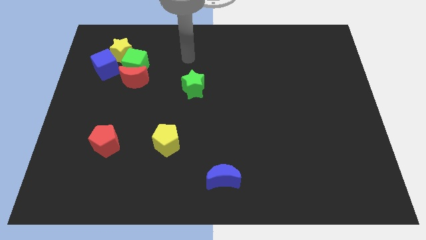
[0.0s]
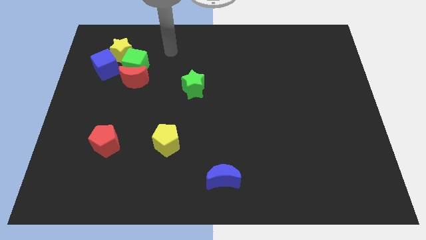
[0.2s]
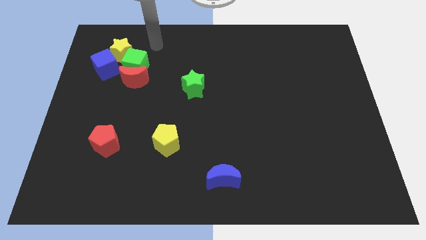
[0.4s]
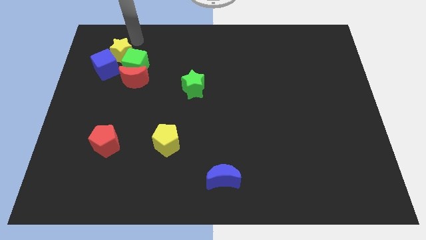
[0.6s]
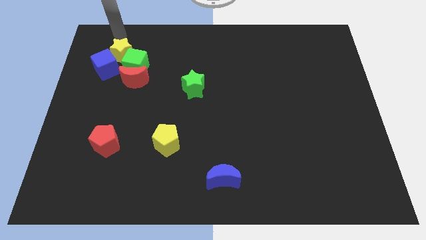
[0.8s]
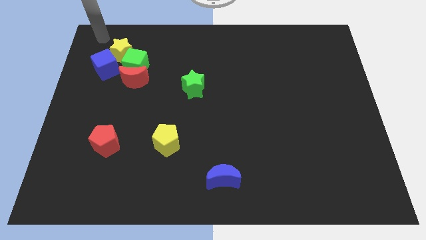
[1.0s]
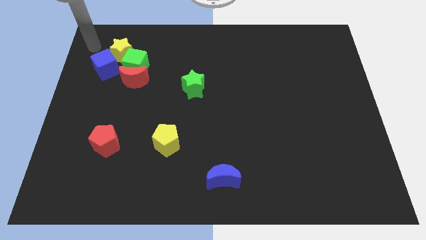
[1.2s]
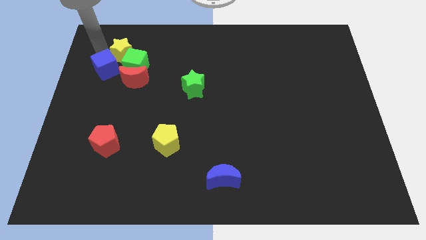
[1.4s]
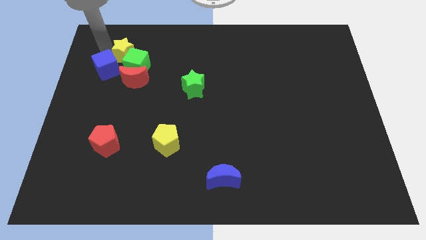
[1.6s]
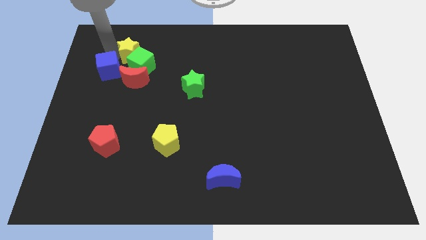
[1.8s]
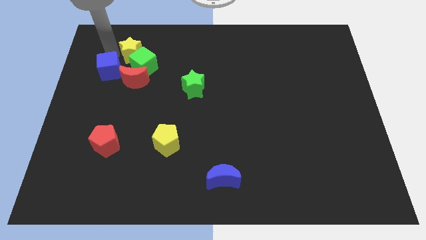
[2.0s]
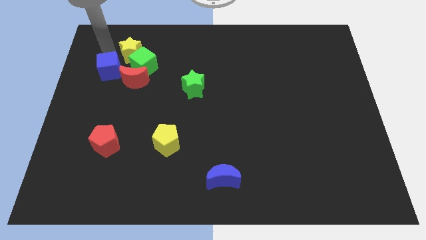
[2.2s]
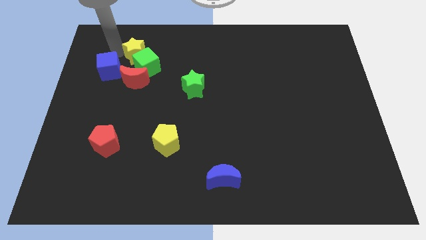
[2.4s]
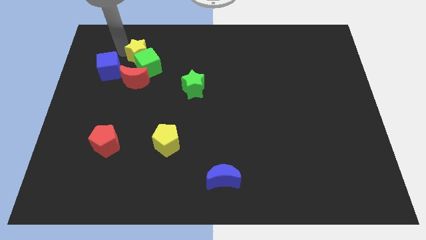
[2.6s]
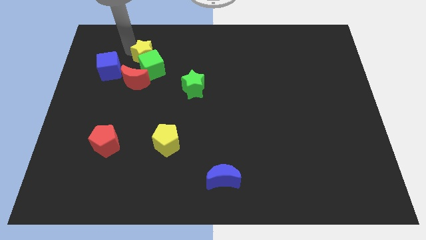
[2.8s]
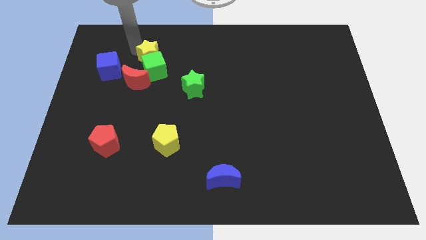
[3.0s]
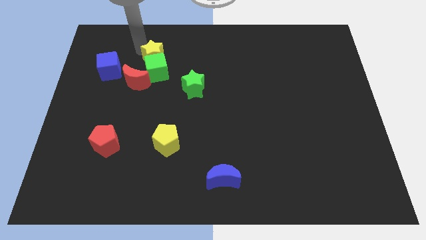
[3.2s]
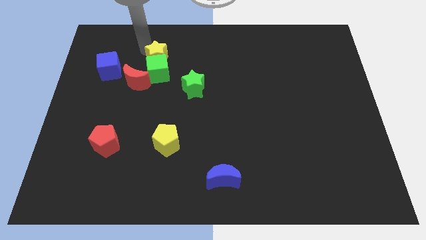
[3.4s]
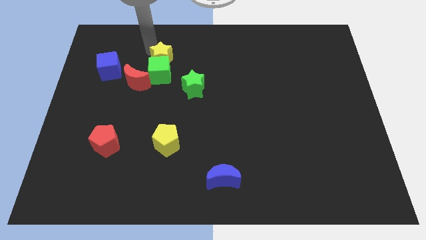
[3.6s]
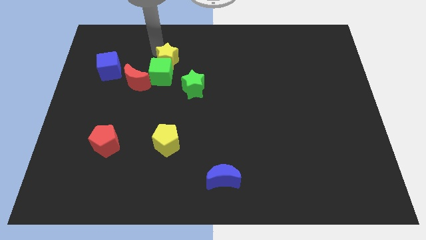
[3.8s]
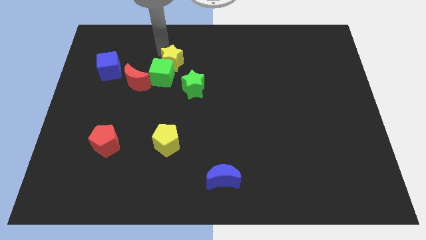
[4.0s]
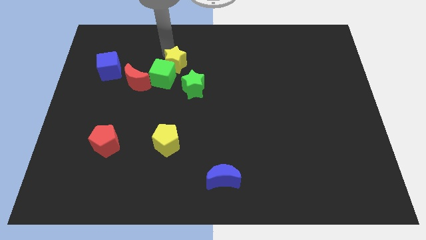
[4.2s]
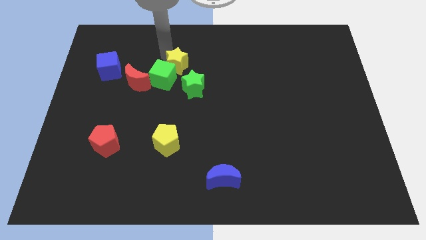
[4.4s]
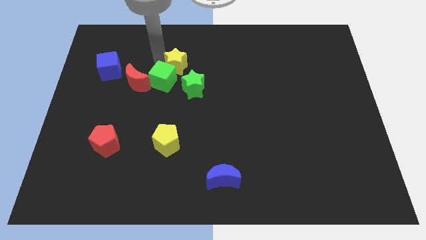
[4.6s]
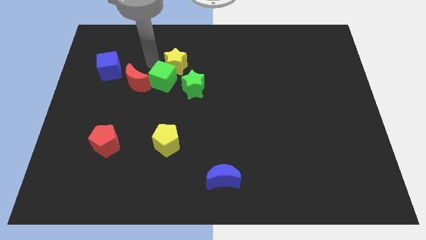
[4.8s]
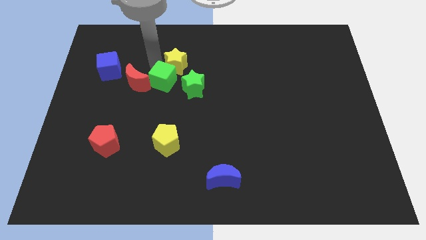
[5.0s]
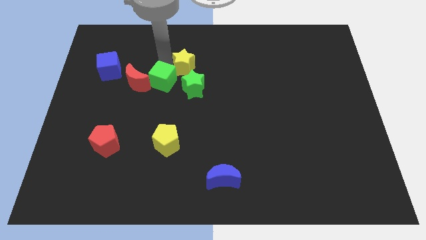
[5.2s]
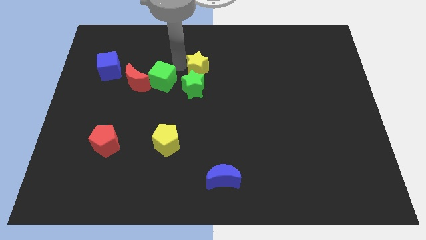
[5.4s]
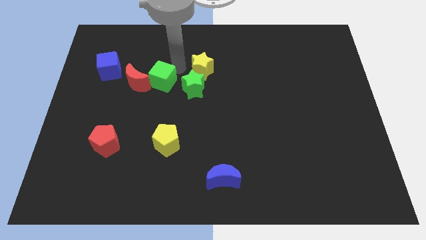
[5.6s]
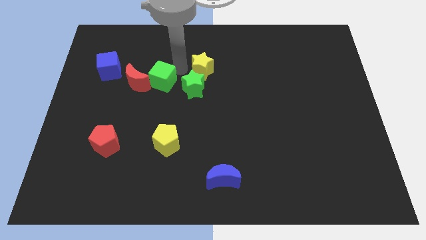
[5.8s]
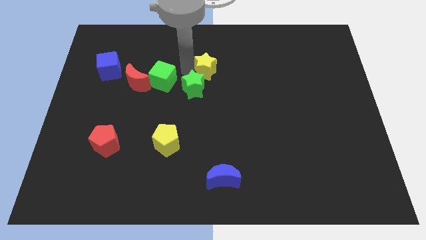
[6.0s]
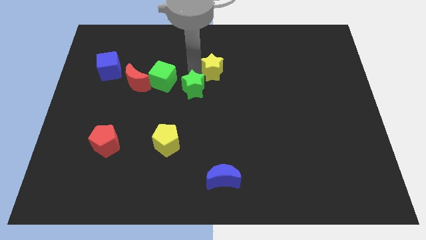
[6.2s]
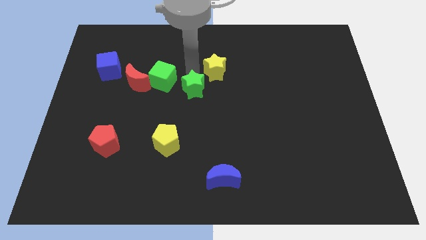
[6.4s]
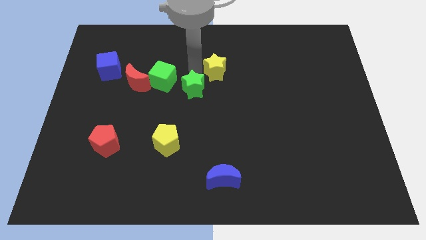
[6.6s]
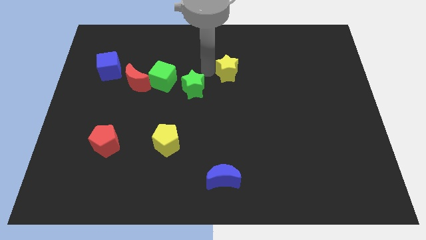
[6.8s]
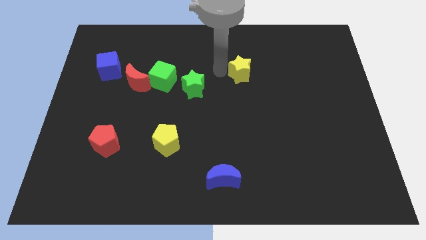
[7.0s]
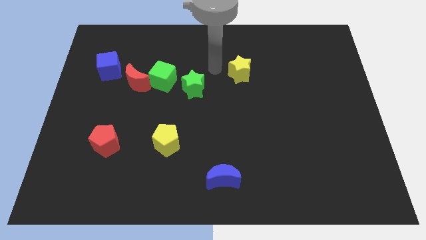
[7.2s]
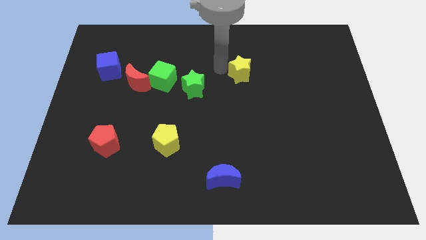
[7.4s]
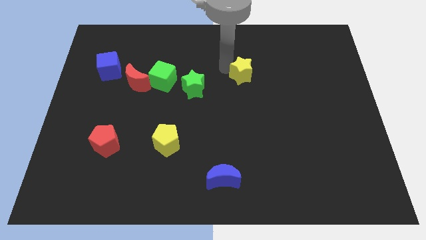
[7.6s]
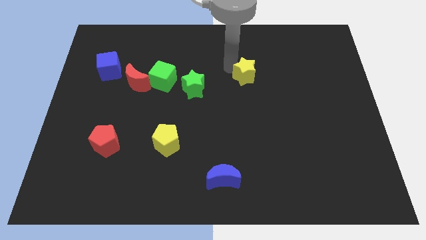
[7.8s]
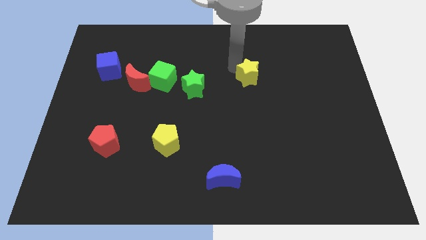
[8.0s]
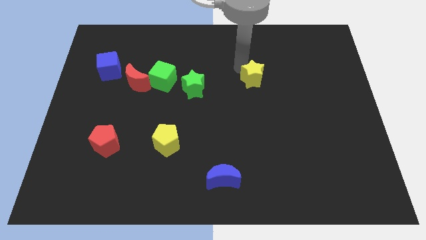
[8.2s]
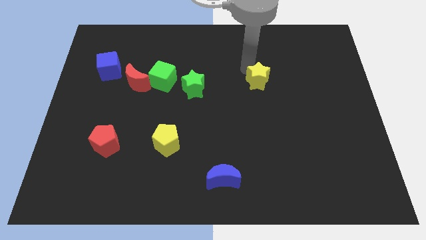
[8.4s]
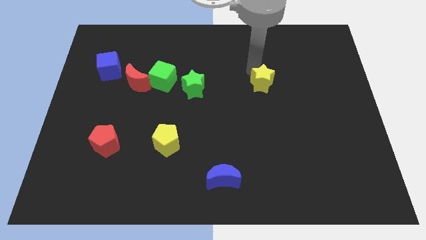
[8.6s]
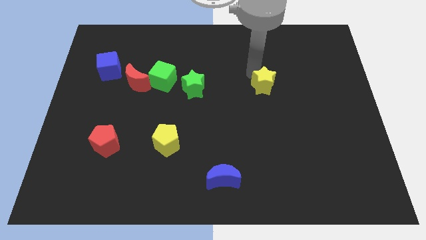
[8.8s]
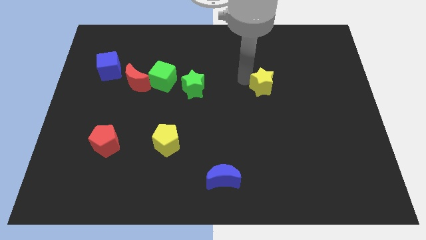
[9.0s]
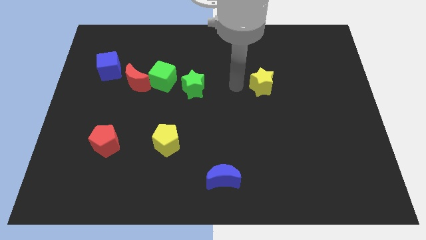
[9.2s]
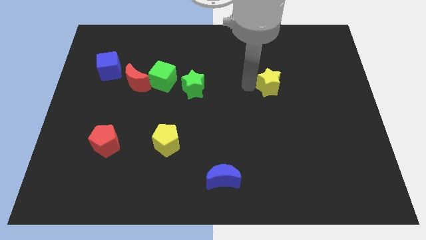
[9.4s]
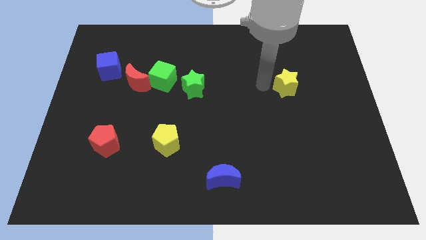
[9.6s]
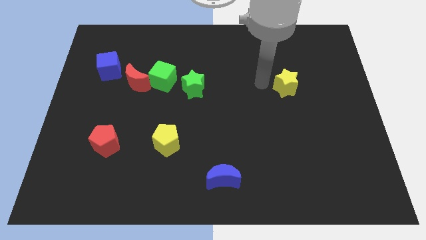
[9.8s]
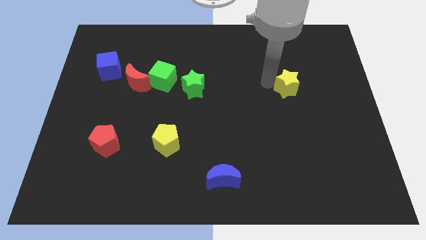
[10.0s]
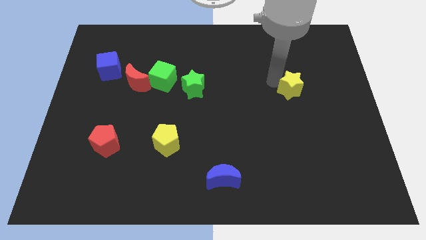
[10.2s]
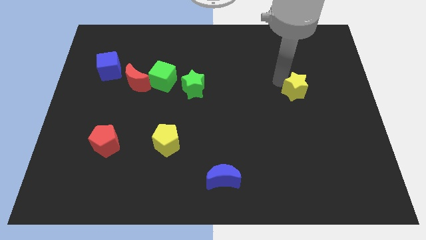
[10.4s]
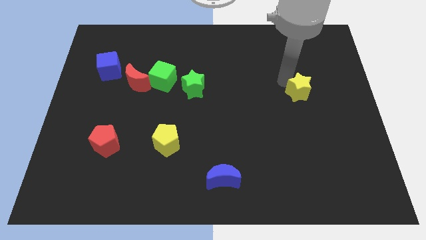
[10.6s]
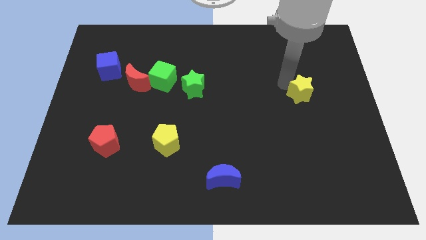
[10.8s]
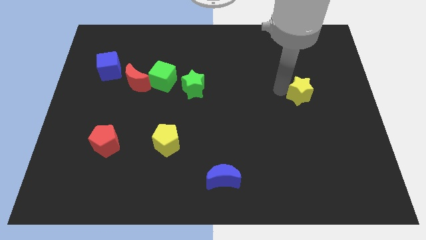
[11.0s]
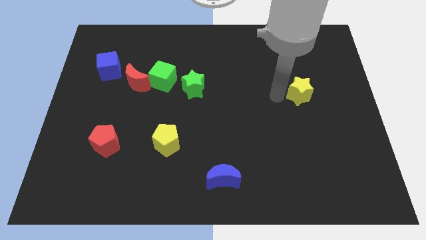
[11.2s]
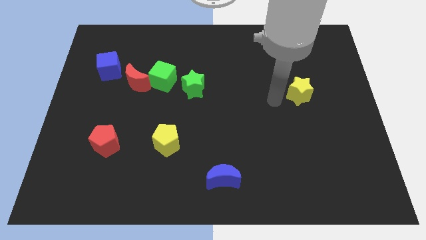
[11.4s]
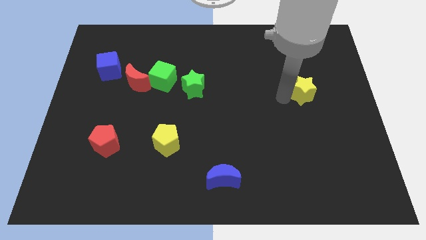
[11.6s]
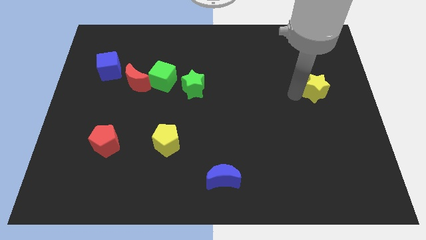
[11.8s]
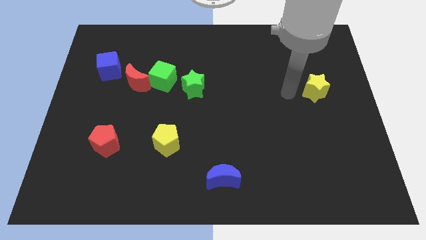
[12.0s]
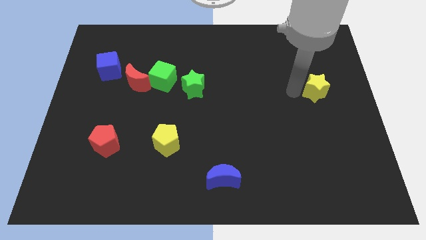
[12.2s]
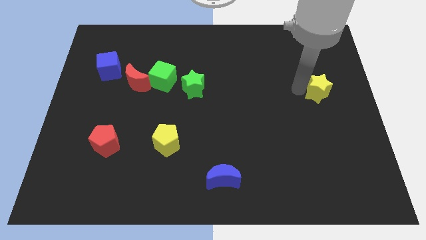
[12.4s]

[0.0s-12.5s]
put the yellow star to the center right
